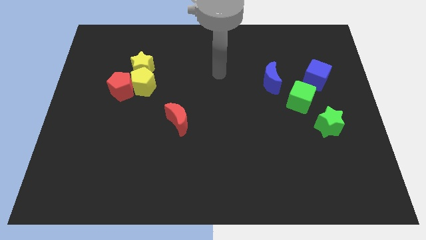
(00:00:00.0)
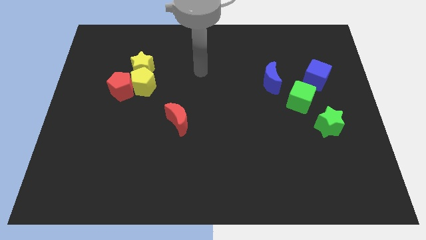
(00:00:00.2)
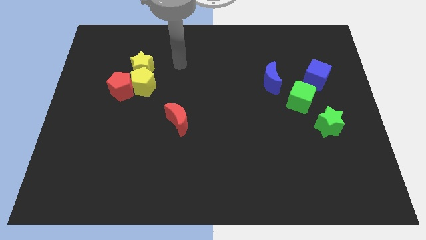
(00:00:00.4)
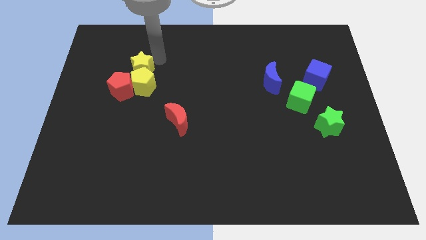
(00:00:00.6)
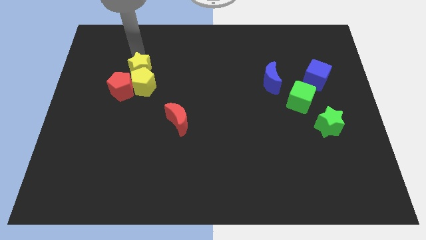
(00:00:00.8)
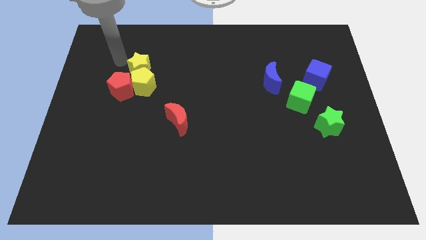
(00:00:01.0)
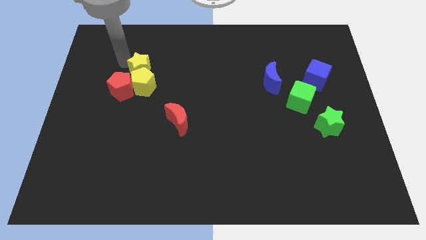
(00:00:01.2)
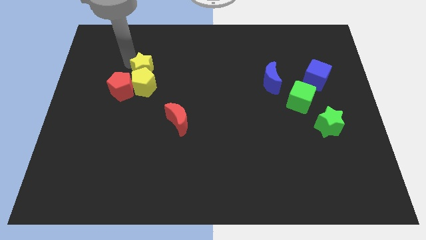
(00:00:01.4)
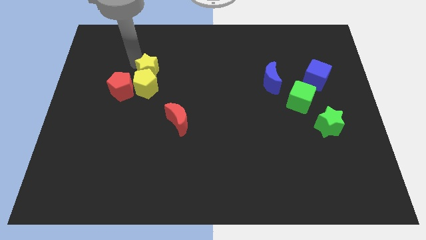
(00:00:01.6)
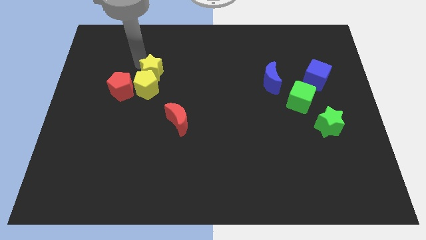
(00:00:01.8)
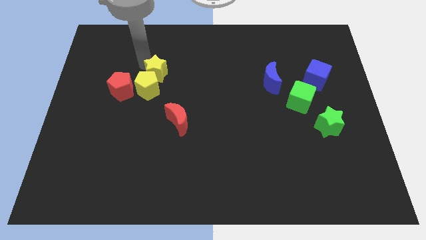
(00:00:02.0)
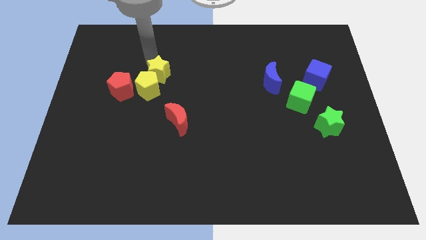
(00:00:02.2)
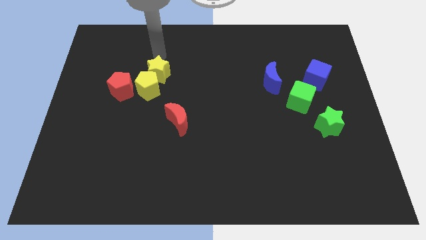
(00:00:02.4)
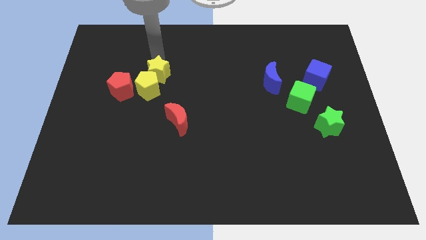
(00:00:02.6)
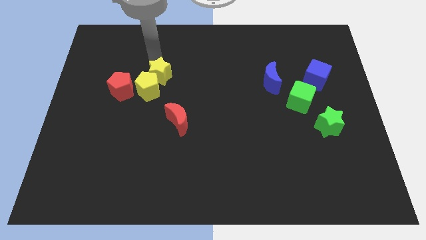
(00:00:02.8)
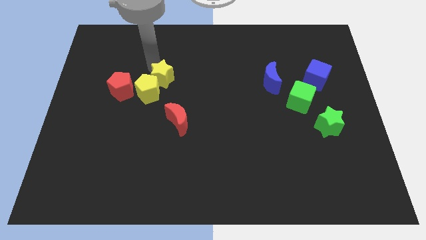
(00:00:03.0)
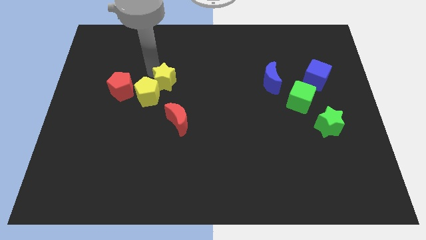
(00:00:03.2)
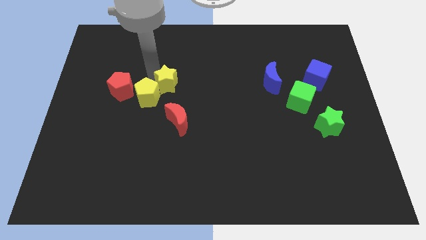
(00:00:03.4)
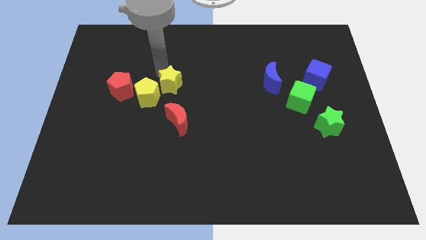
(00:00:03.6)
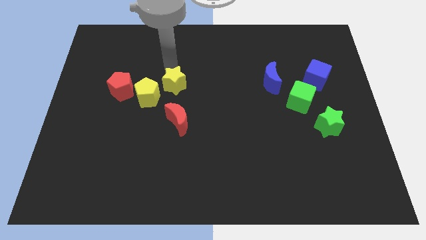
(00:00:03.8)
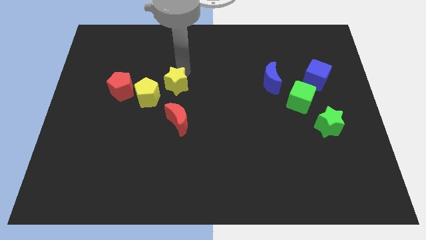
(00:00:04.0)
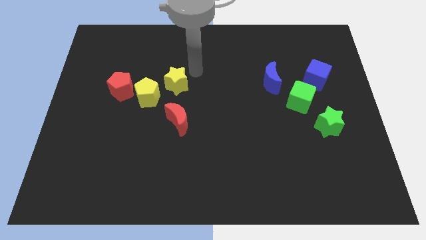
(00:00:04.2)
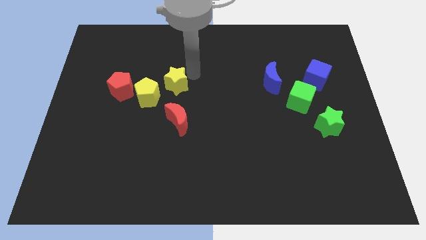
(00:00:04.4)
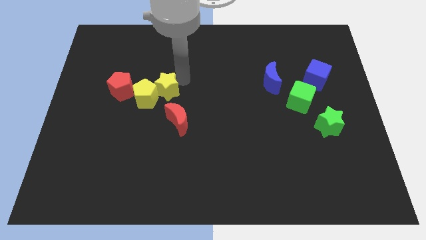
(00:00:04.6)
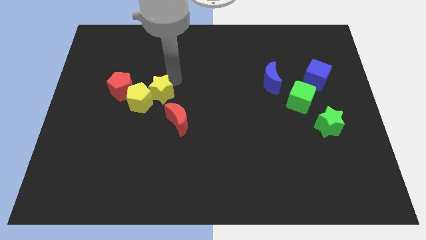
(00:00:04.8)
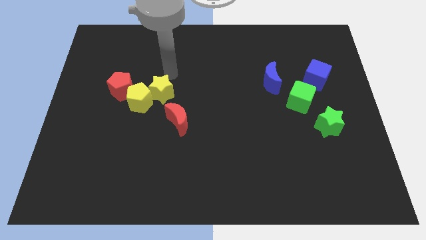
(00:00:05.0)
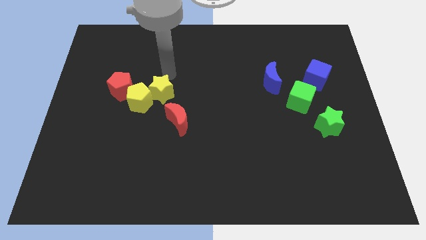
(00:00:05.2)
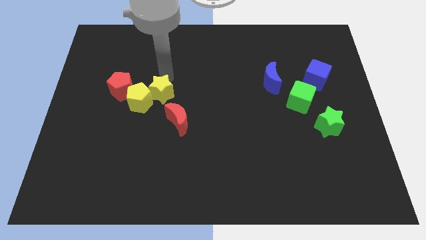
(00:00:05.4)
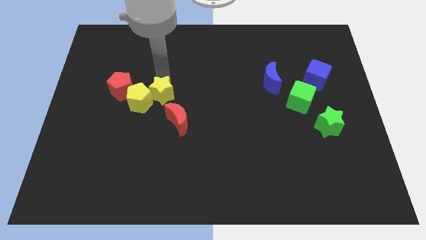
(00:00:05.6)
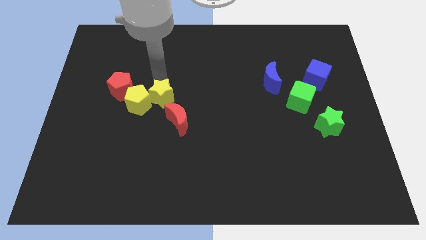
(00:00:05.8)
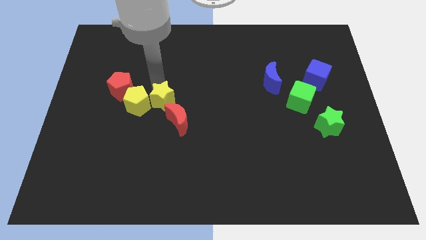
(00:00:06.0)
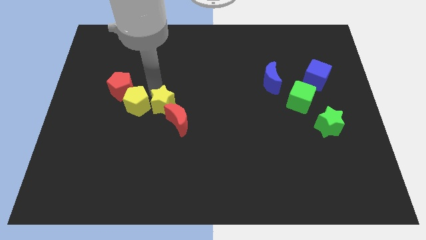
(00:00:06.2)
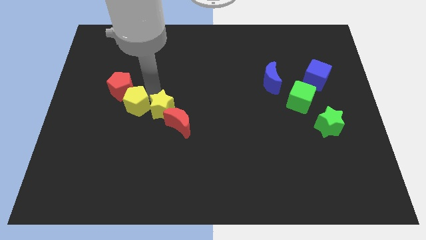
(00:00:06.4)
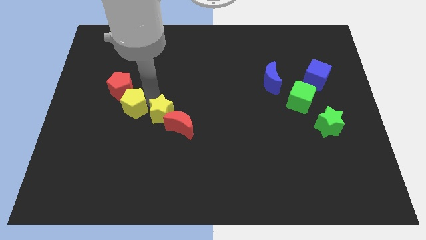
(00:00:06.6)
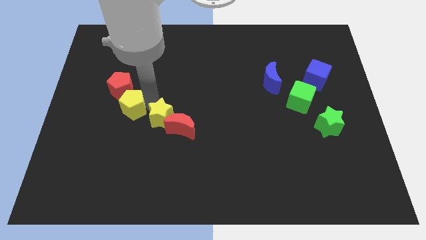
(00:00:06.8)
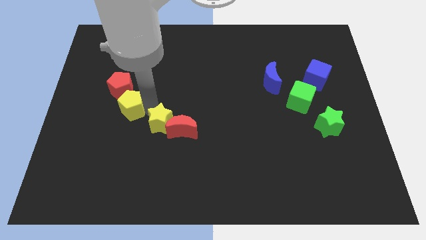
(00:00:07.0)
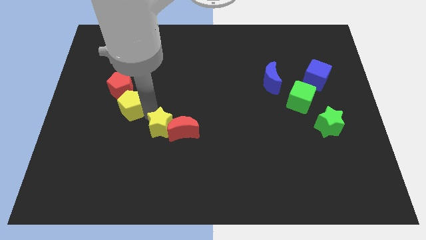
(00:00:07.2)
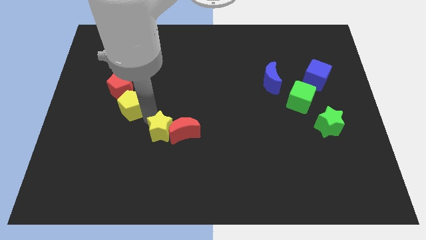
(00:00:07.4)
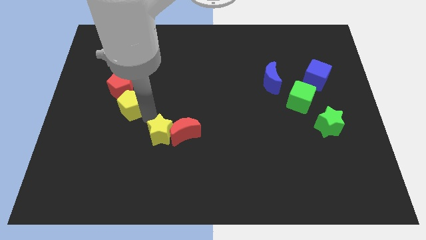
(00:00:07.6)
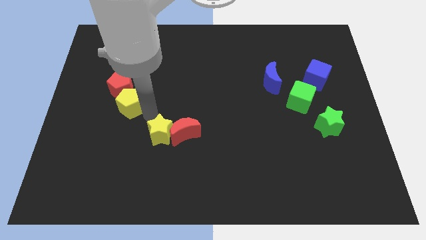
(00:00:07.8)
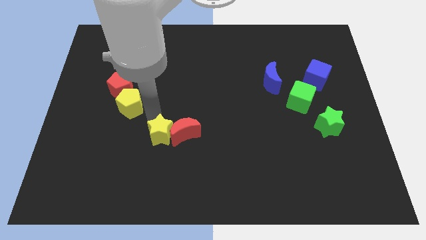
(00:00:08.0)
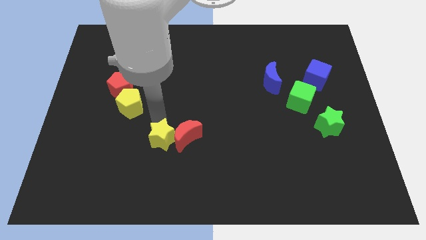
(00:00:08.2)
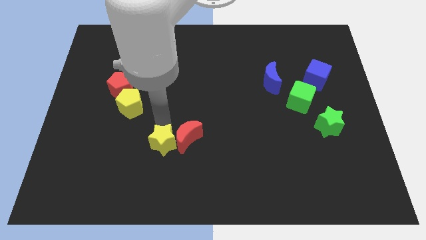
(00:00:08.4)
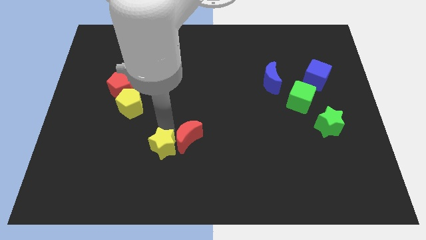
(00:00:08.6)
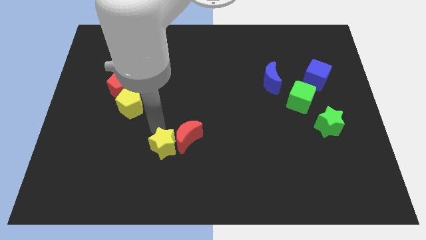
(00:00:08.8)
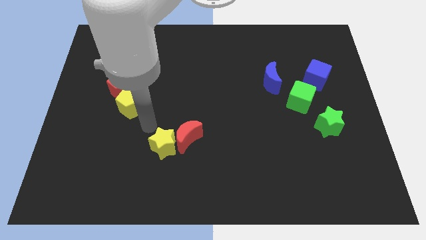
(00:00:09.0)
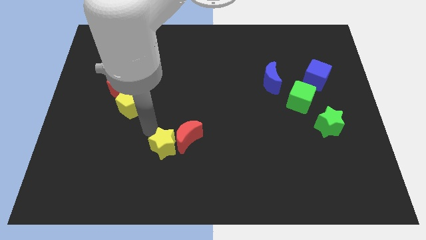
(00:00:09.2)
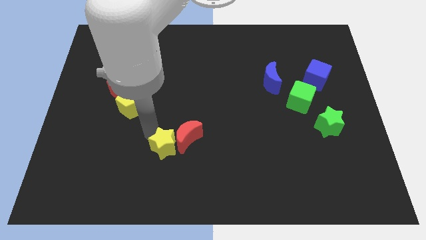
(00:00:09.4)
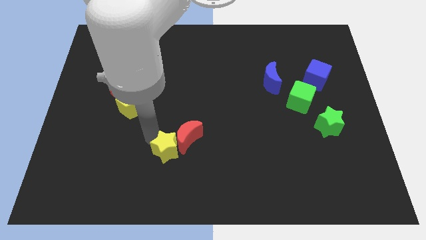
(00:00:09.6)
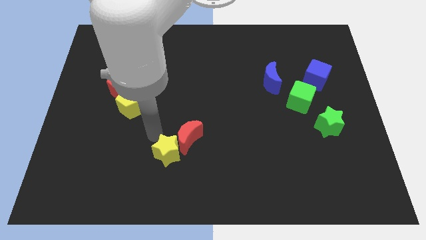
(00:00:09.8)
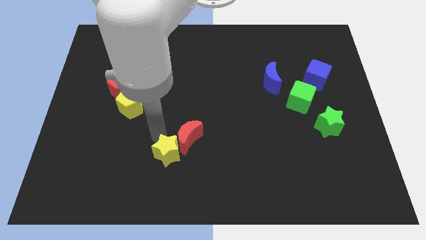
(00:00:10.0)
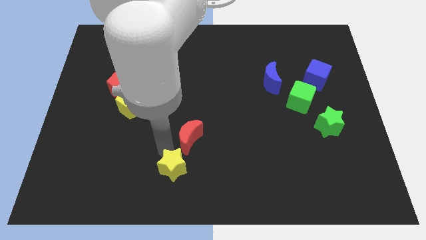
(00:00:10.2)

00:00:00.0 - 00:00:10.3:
move the yellow star to the bottom side
